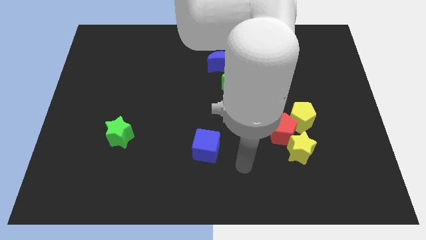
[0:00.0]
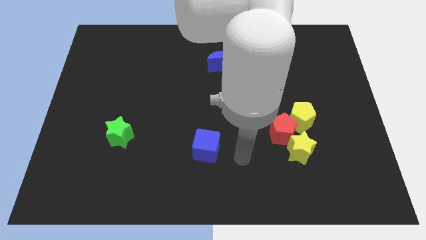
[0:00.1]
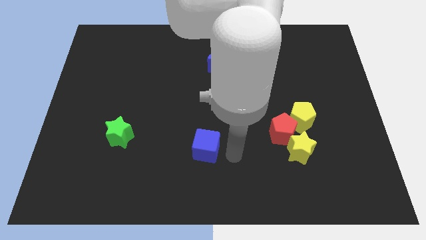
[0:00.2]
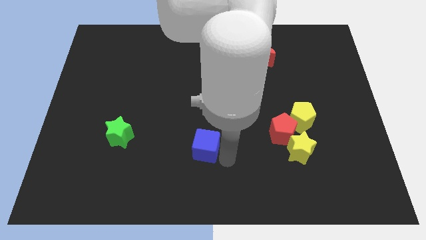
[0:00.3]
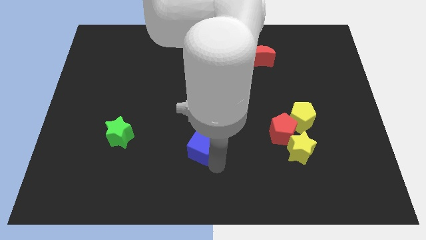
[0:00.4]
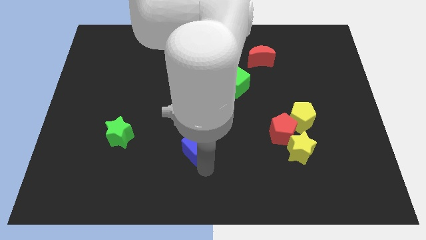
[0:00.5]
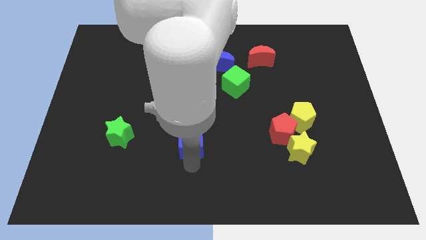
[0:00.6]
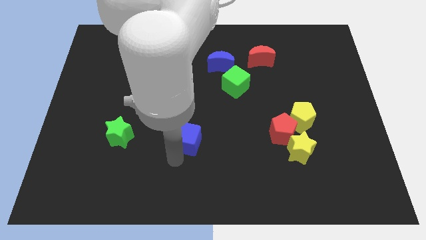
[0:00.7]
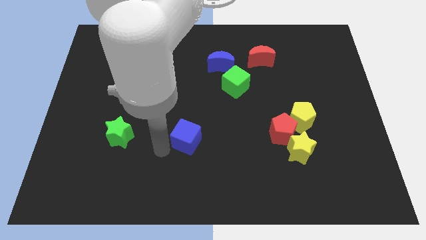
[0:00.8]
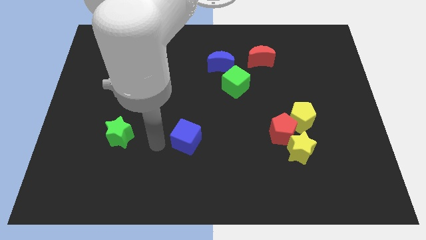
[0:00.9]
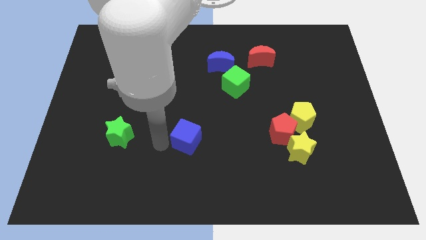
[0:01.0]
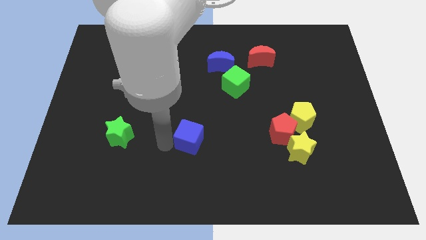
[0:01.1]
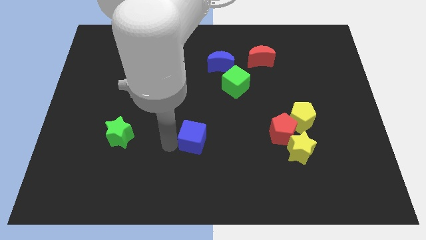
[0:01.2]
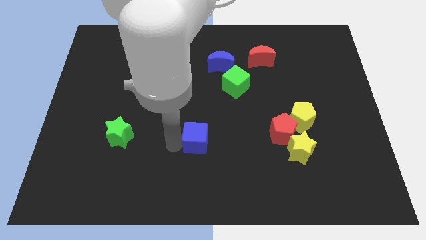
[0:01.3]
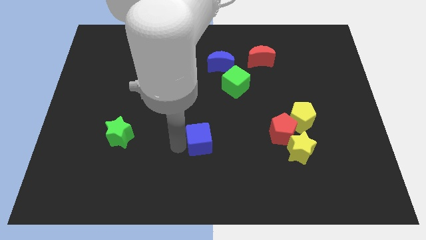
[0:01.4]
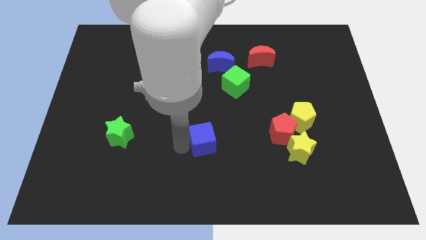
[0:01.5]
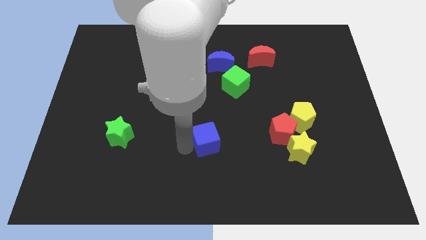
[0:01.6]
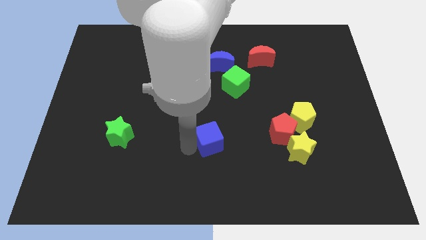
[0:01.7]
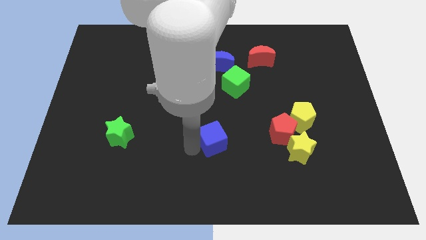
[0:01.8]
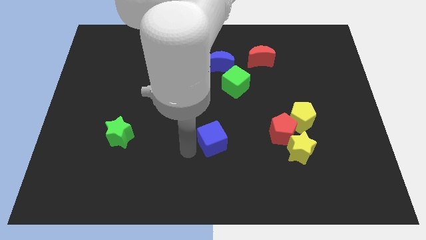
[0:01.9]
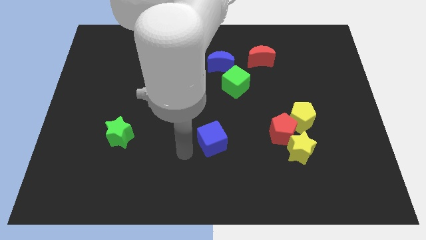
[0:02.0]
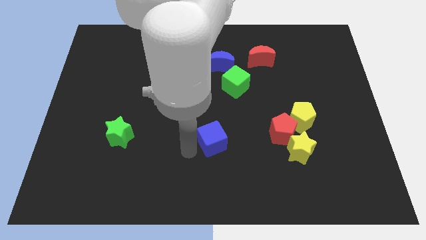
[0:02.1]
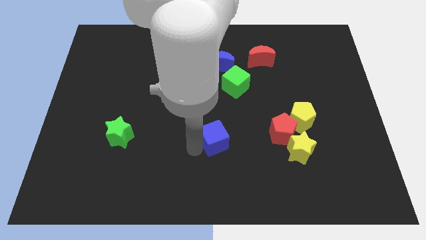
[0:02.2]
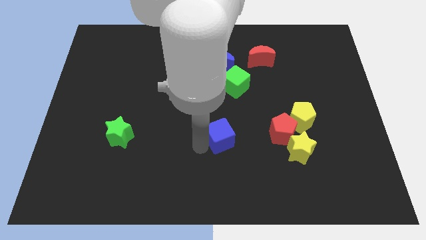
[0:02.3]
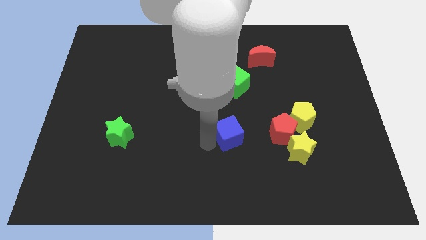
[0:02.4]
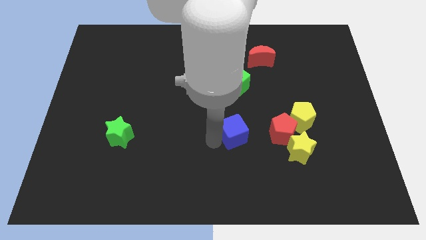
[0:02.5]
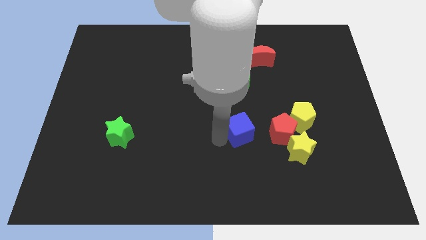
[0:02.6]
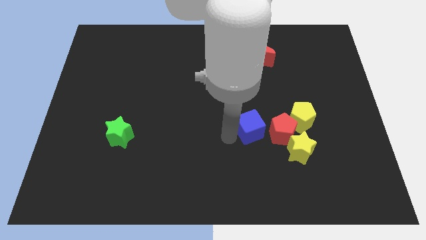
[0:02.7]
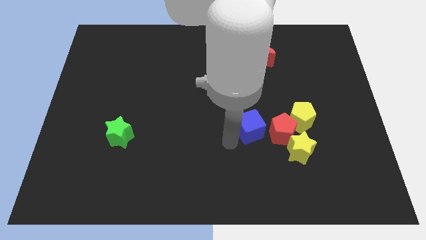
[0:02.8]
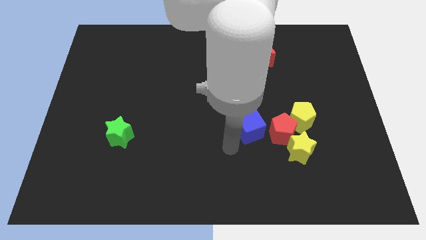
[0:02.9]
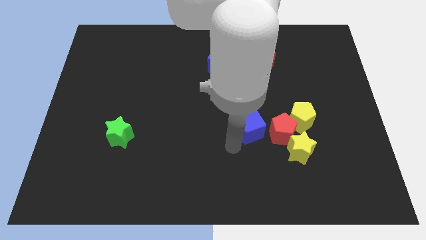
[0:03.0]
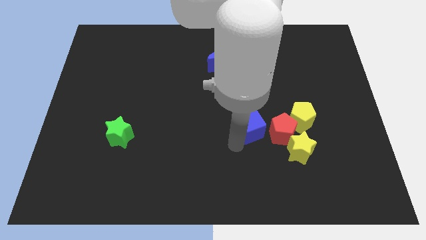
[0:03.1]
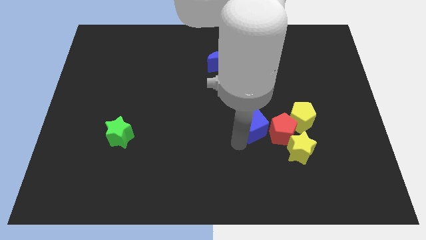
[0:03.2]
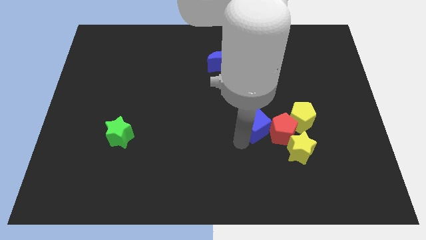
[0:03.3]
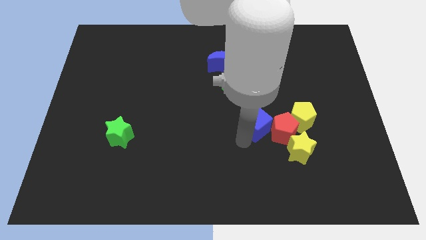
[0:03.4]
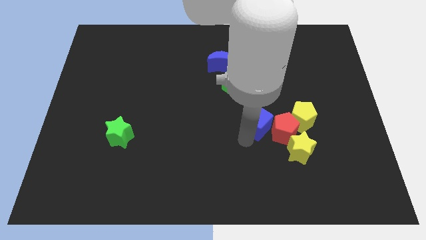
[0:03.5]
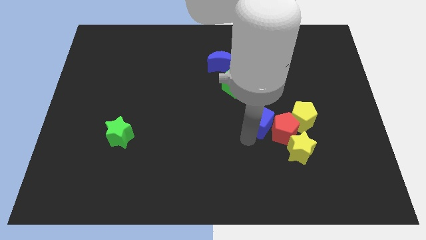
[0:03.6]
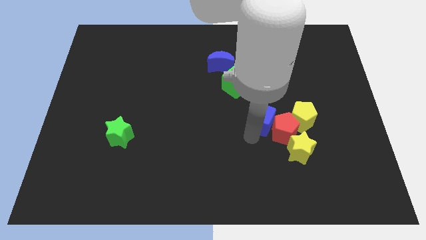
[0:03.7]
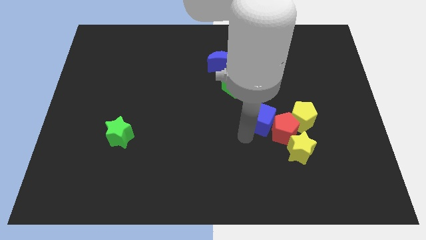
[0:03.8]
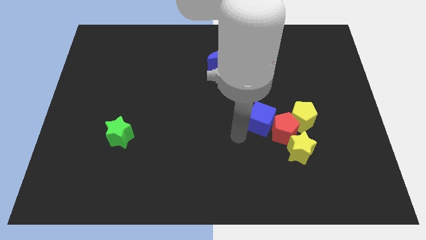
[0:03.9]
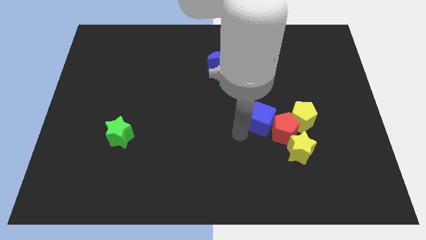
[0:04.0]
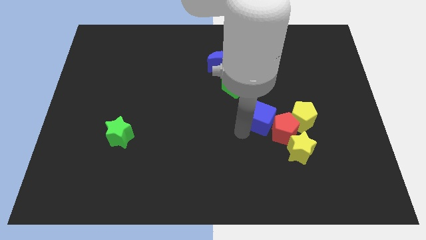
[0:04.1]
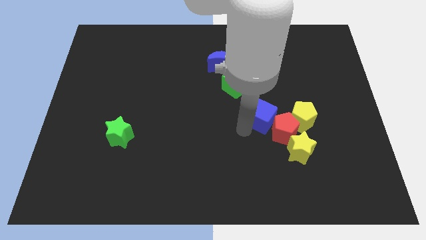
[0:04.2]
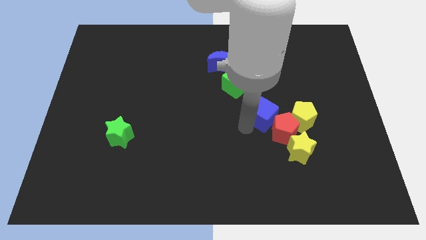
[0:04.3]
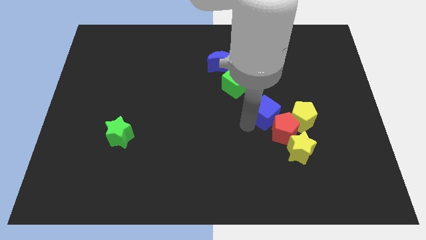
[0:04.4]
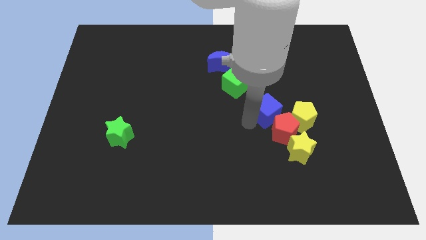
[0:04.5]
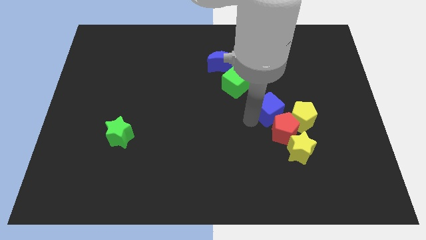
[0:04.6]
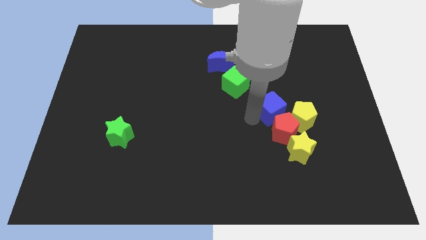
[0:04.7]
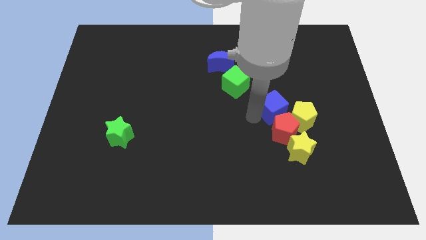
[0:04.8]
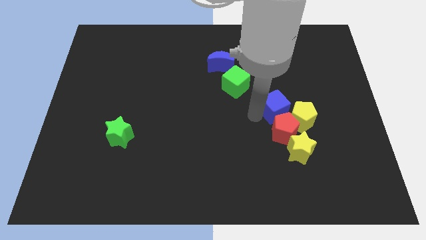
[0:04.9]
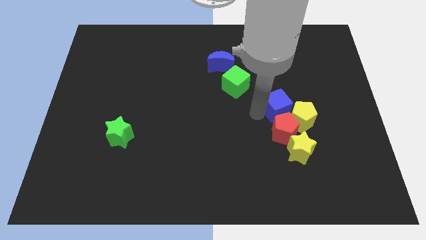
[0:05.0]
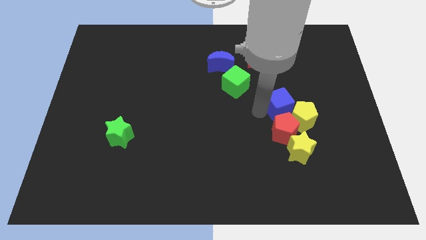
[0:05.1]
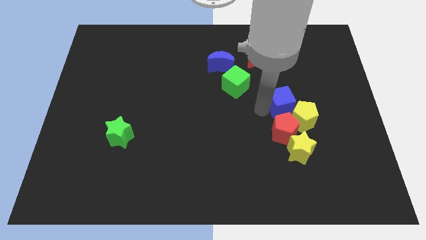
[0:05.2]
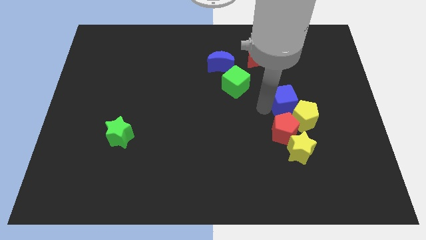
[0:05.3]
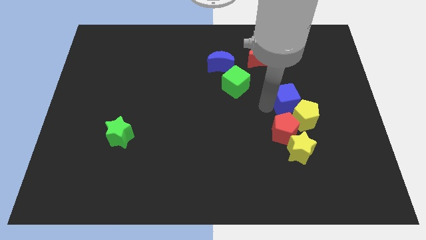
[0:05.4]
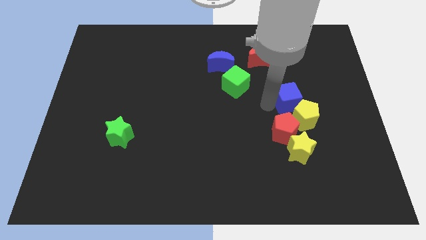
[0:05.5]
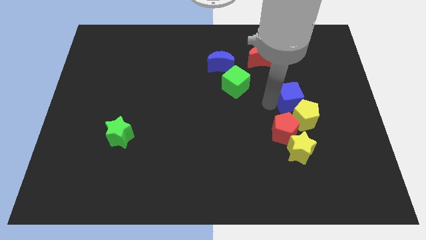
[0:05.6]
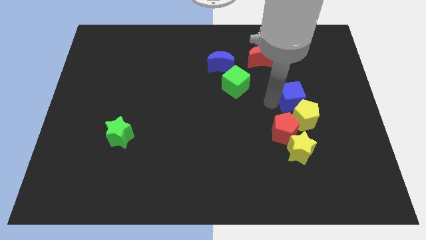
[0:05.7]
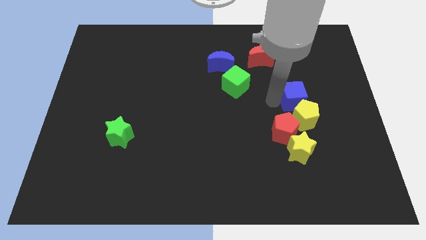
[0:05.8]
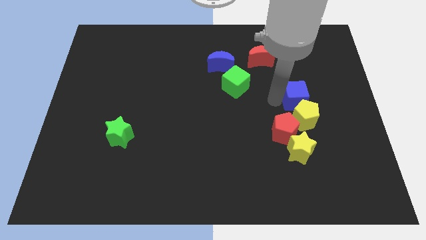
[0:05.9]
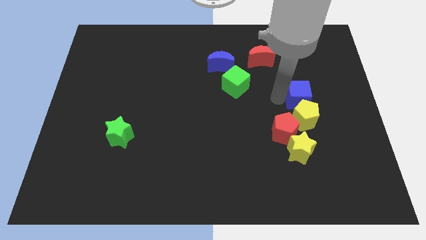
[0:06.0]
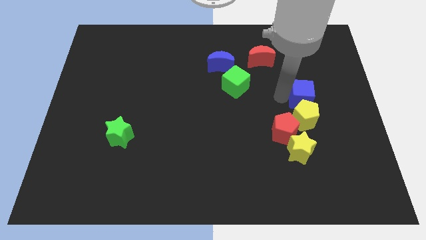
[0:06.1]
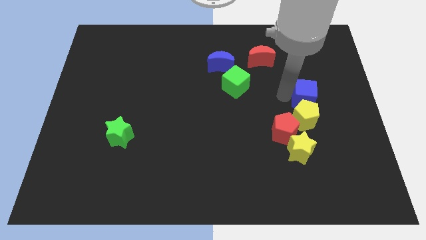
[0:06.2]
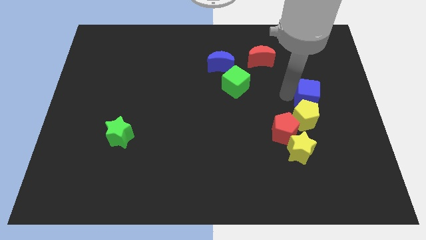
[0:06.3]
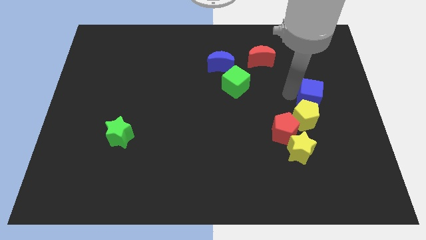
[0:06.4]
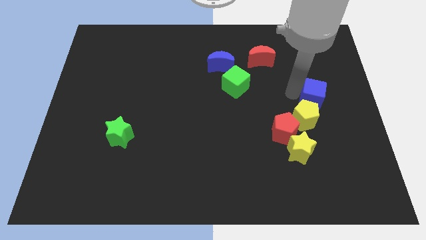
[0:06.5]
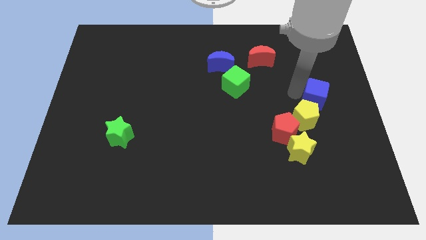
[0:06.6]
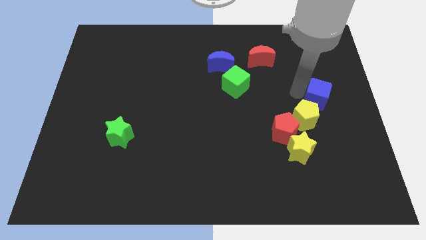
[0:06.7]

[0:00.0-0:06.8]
push the blue cube to the center right
